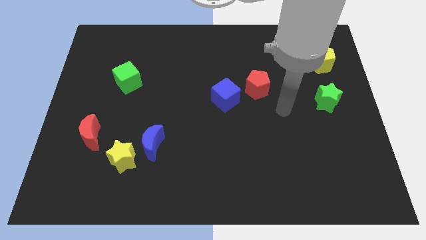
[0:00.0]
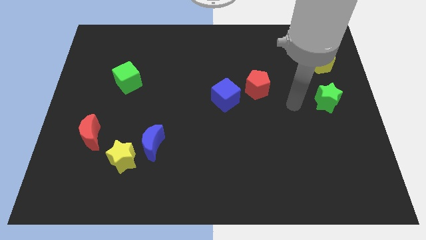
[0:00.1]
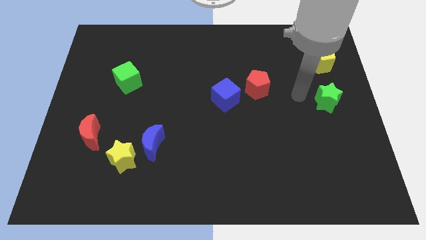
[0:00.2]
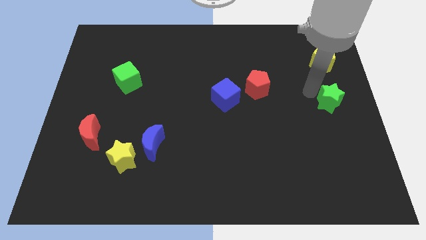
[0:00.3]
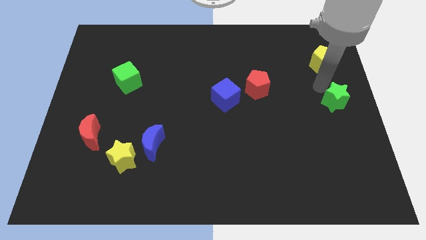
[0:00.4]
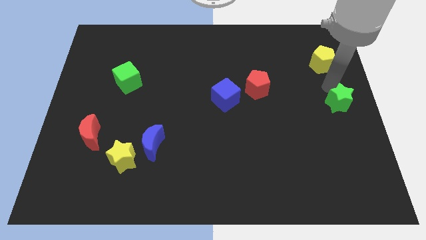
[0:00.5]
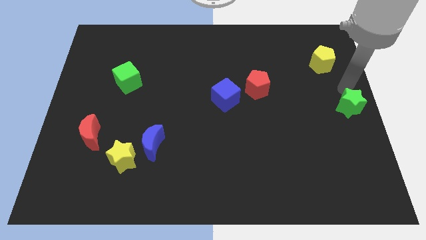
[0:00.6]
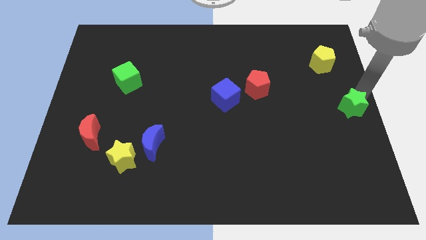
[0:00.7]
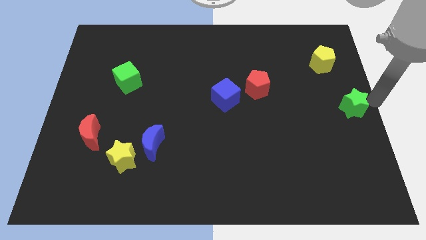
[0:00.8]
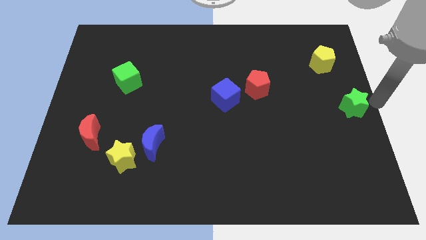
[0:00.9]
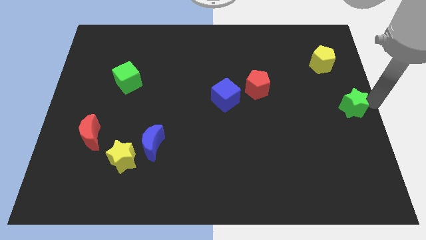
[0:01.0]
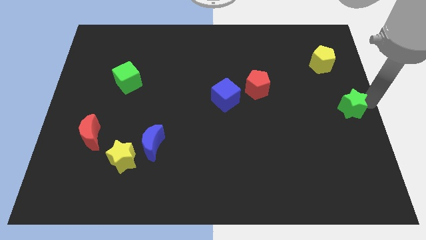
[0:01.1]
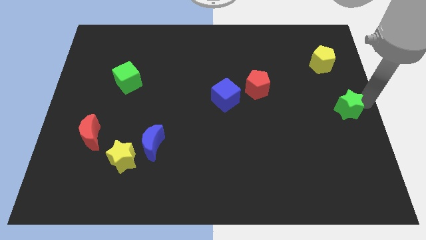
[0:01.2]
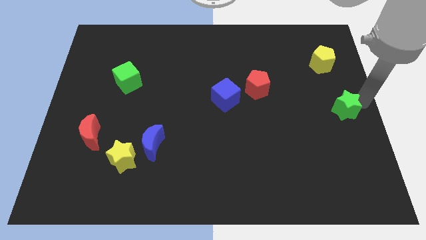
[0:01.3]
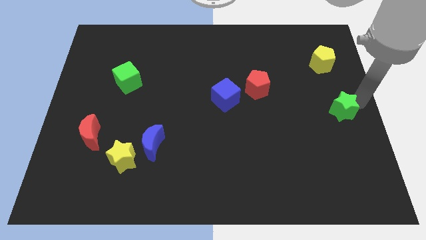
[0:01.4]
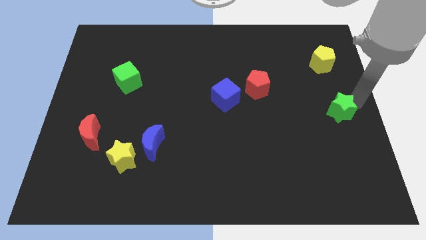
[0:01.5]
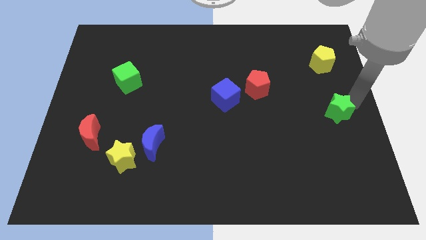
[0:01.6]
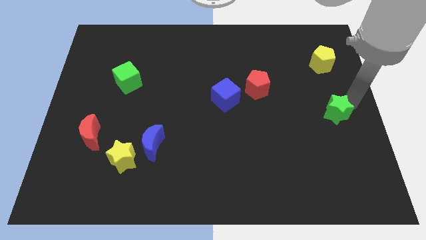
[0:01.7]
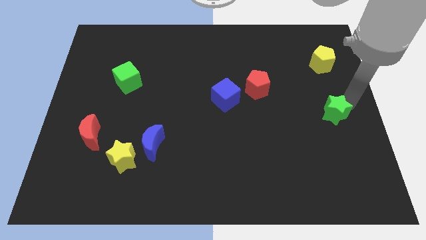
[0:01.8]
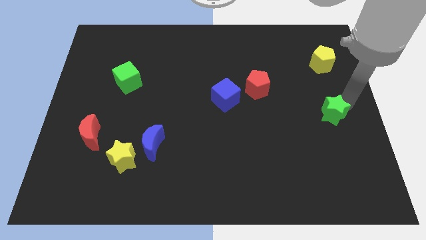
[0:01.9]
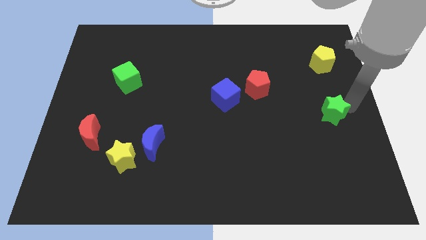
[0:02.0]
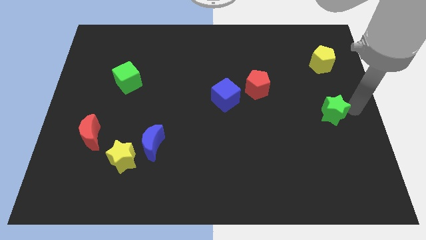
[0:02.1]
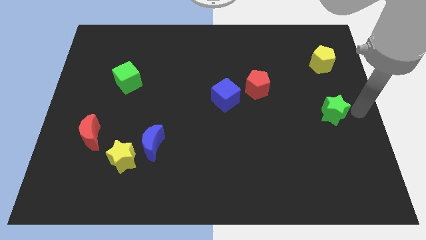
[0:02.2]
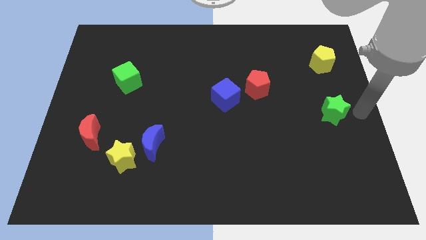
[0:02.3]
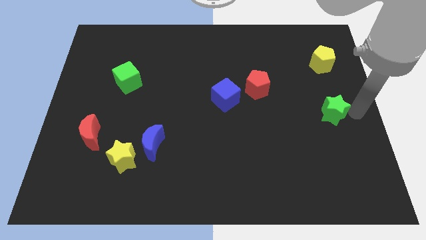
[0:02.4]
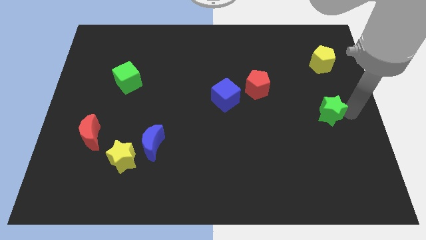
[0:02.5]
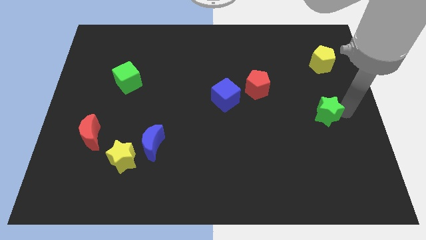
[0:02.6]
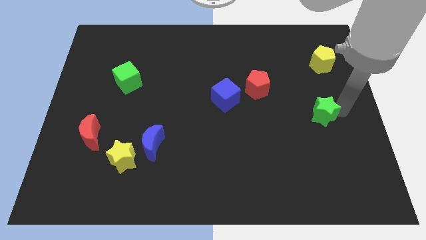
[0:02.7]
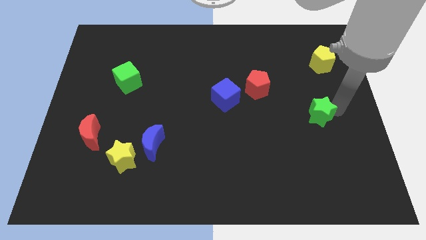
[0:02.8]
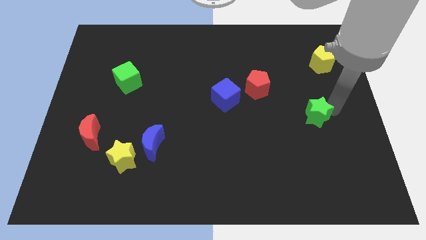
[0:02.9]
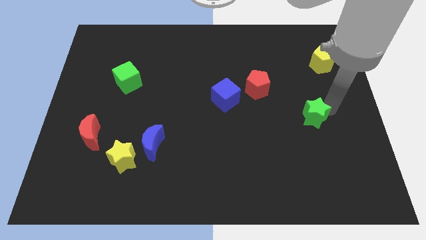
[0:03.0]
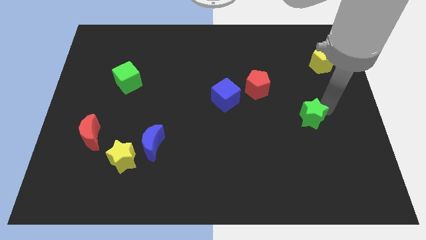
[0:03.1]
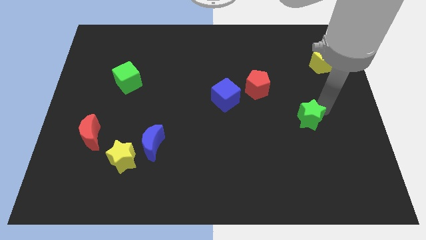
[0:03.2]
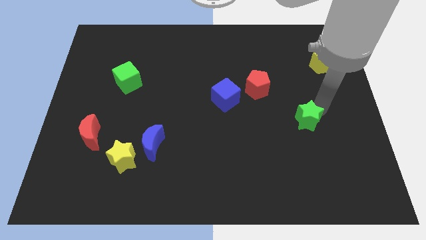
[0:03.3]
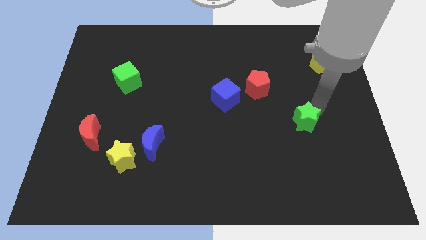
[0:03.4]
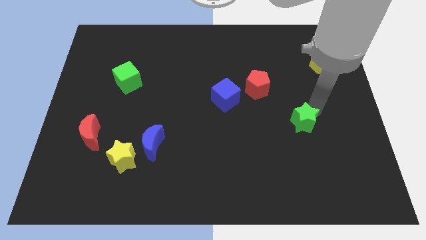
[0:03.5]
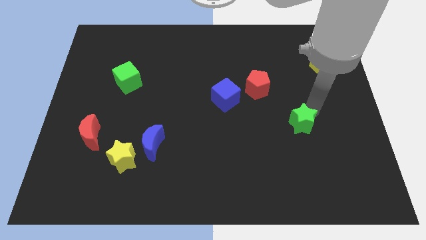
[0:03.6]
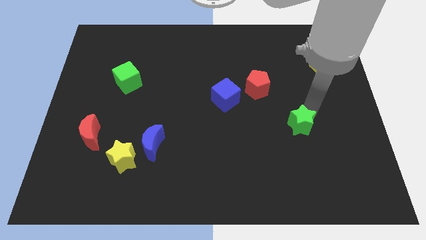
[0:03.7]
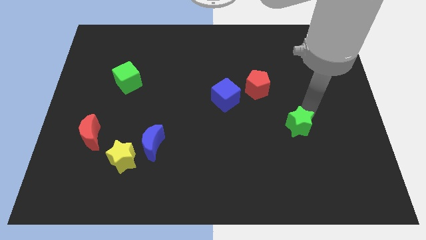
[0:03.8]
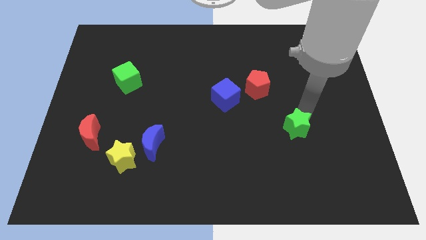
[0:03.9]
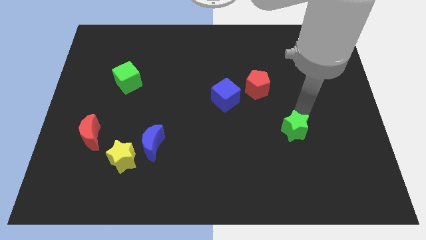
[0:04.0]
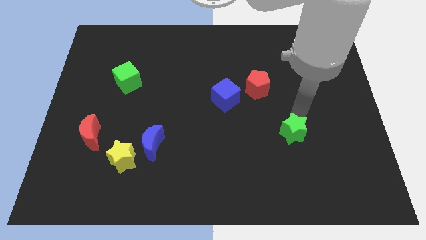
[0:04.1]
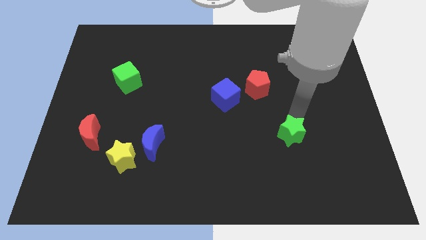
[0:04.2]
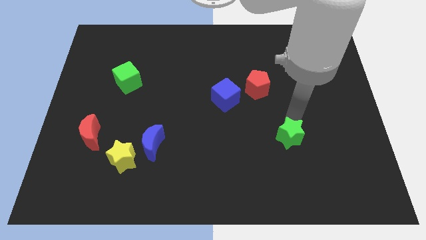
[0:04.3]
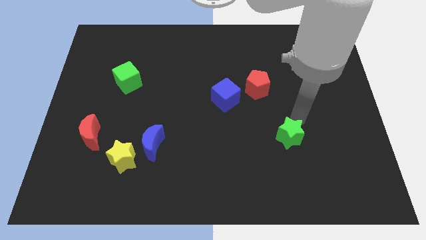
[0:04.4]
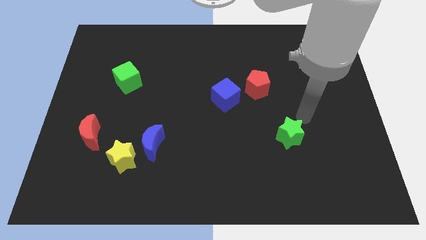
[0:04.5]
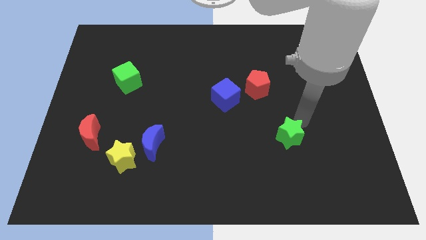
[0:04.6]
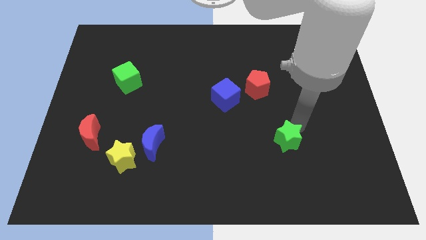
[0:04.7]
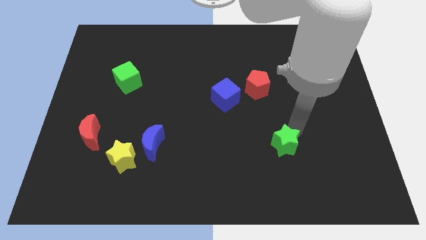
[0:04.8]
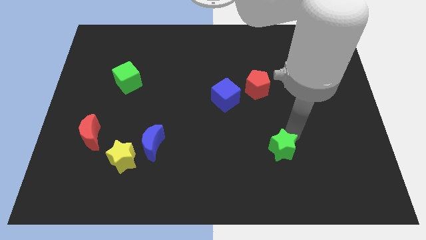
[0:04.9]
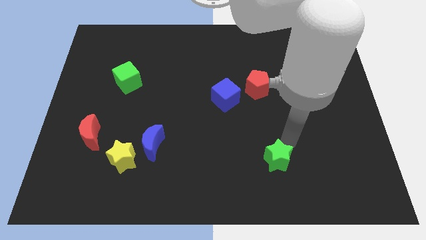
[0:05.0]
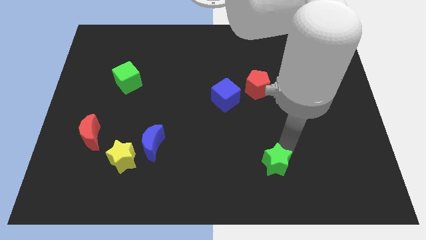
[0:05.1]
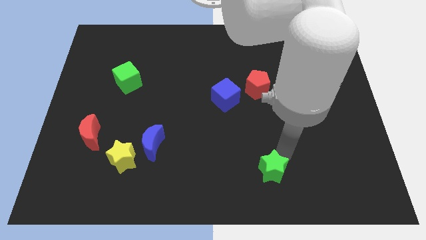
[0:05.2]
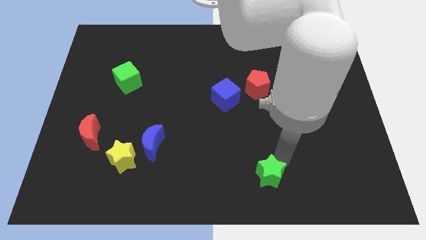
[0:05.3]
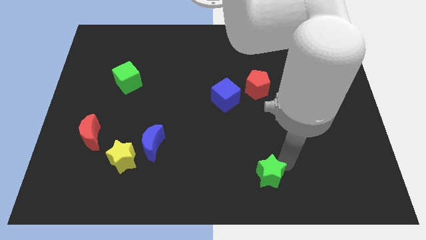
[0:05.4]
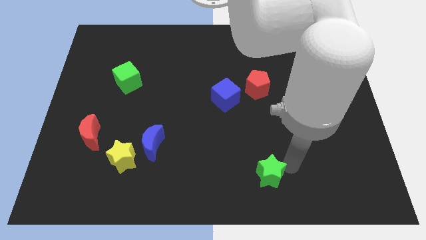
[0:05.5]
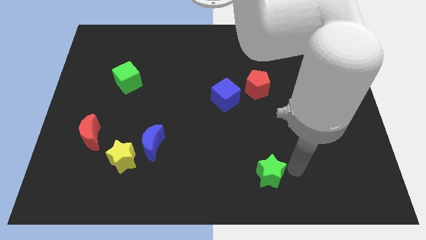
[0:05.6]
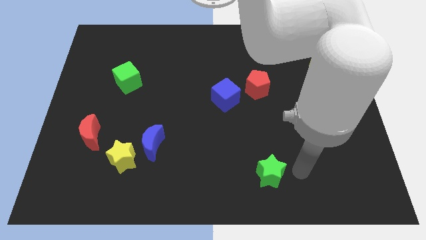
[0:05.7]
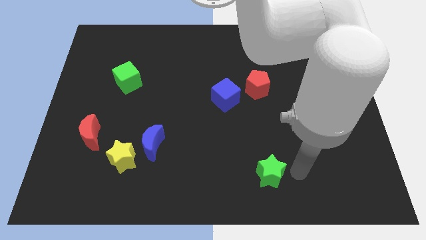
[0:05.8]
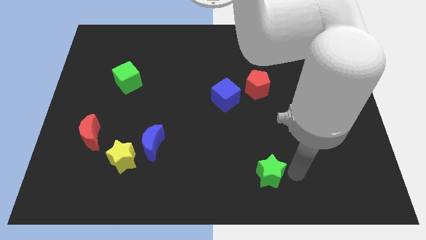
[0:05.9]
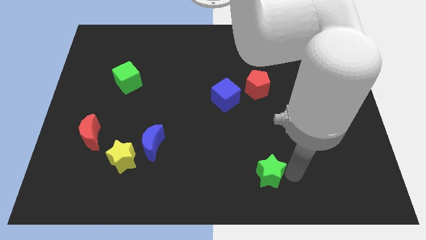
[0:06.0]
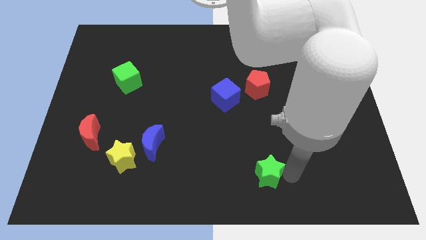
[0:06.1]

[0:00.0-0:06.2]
slide the green star to the bottom side
